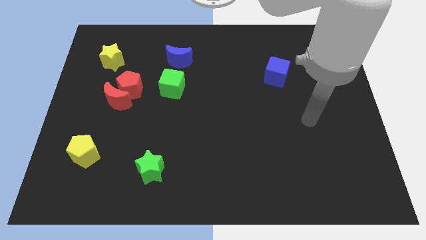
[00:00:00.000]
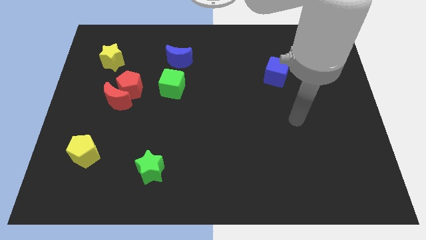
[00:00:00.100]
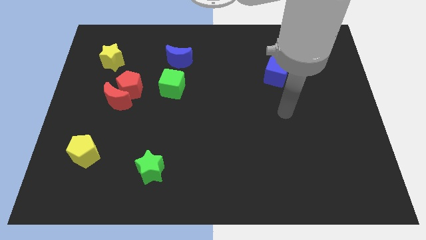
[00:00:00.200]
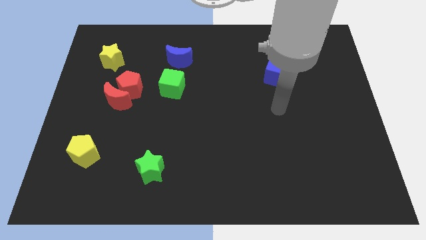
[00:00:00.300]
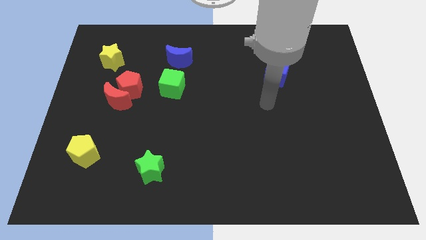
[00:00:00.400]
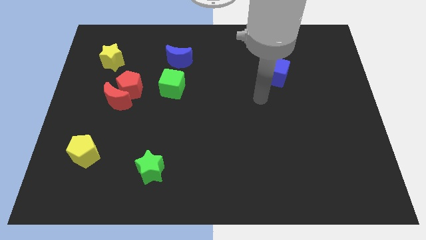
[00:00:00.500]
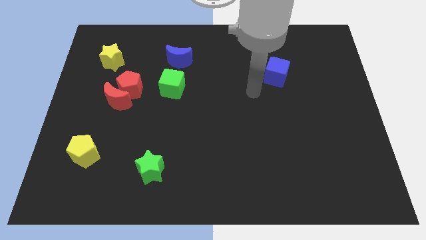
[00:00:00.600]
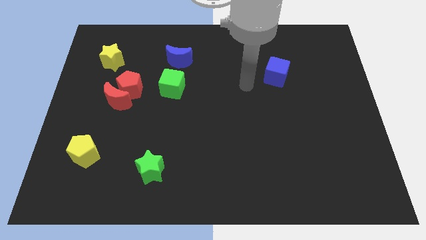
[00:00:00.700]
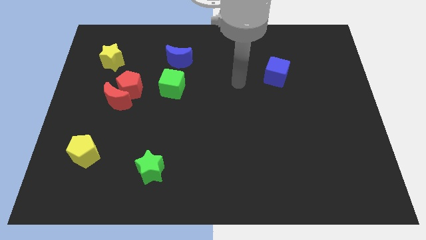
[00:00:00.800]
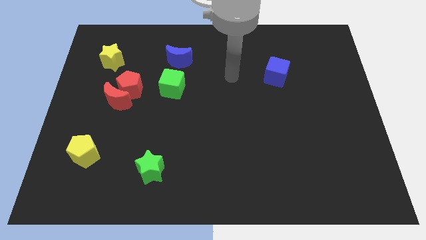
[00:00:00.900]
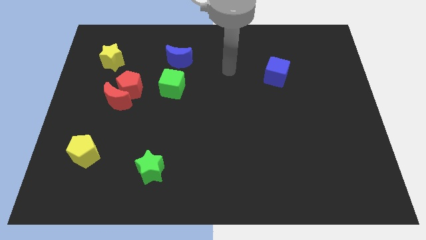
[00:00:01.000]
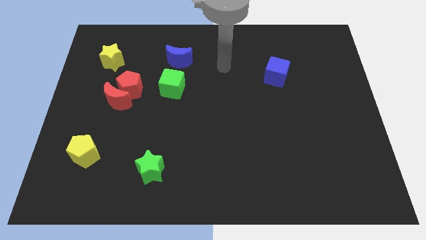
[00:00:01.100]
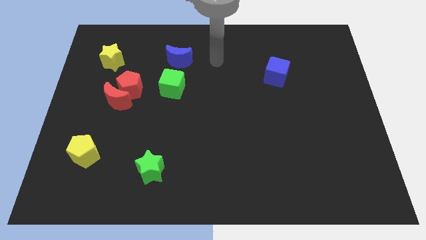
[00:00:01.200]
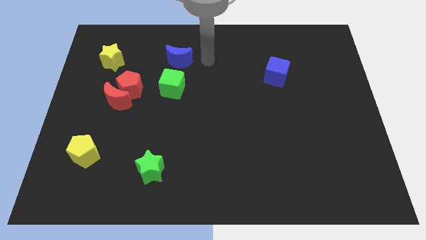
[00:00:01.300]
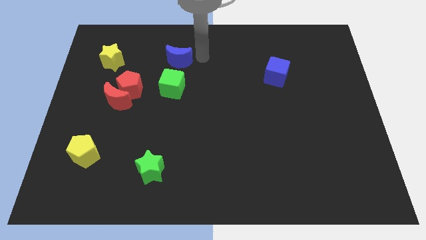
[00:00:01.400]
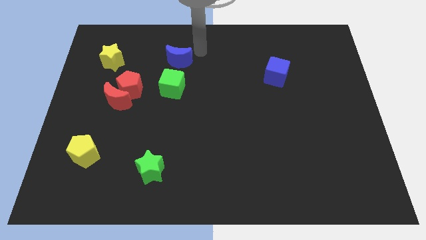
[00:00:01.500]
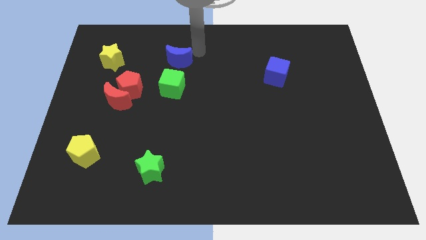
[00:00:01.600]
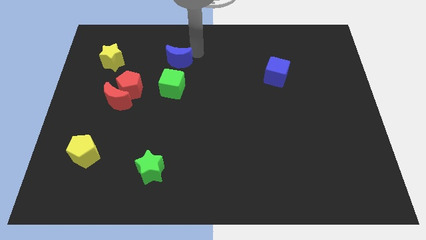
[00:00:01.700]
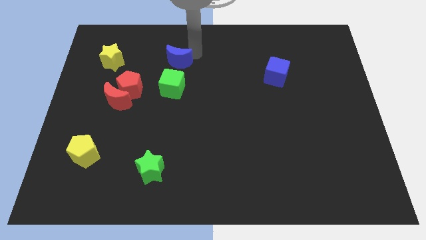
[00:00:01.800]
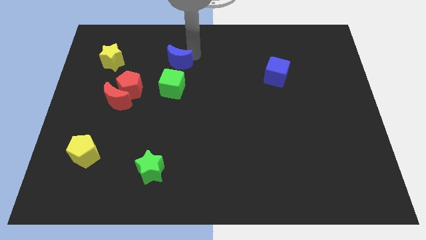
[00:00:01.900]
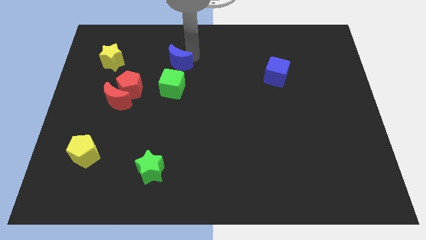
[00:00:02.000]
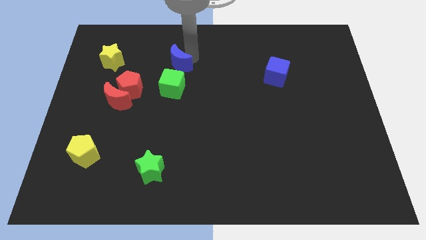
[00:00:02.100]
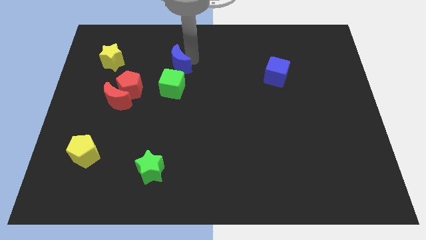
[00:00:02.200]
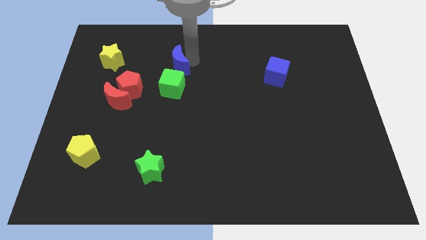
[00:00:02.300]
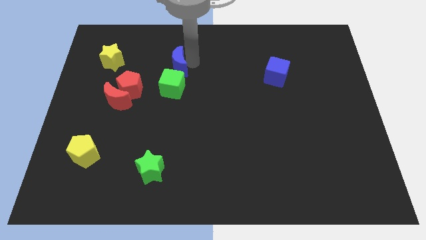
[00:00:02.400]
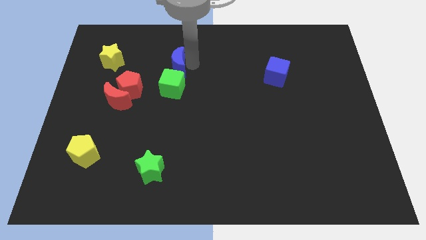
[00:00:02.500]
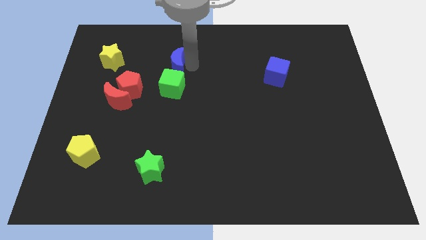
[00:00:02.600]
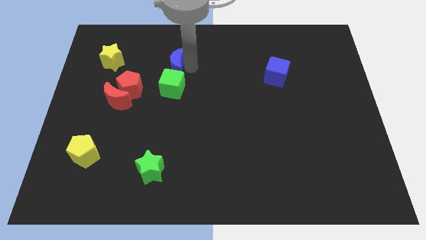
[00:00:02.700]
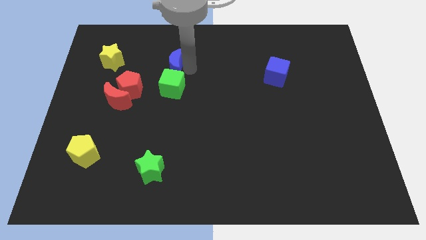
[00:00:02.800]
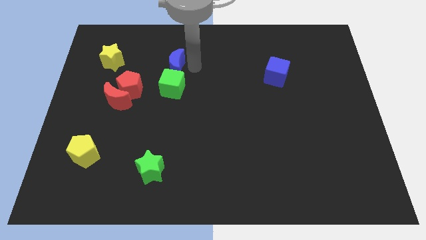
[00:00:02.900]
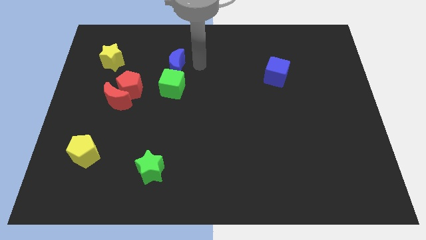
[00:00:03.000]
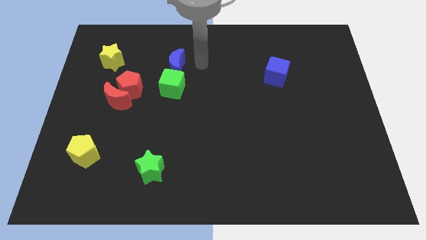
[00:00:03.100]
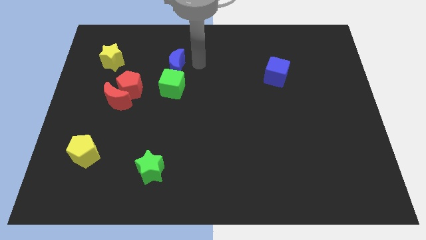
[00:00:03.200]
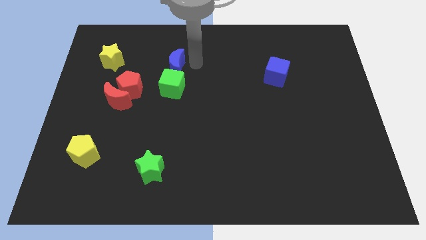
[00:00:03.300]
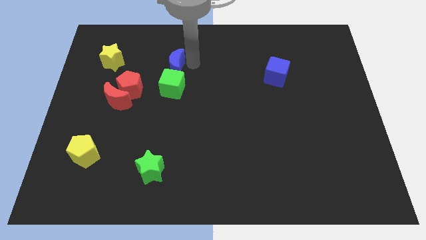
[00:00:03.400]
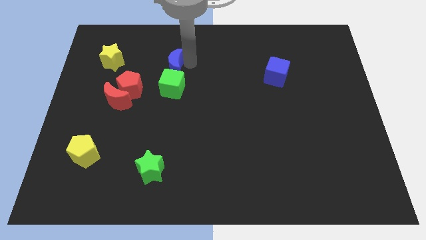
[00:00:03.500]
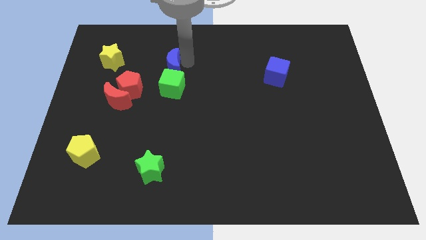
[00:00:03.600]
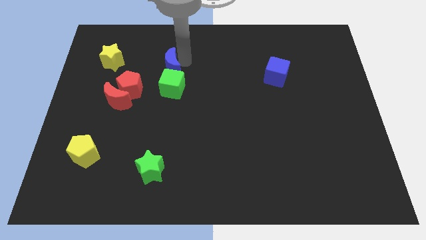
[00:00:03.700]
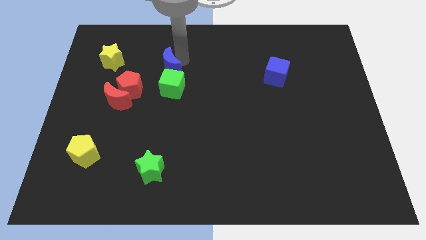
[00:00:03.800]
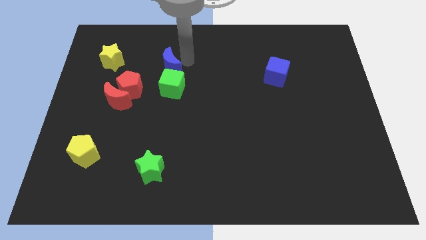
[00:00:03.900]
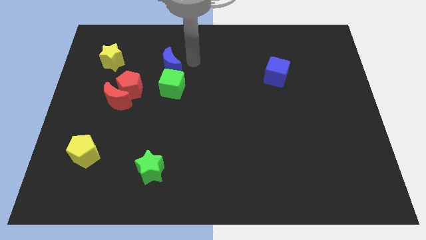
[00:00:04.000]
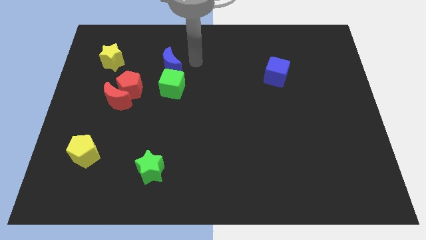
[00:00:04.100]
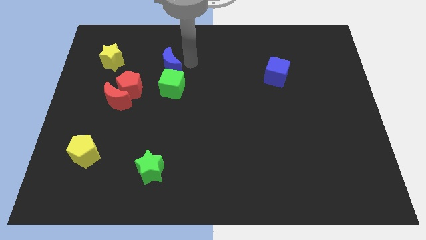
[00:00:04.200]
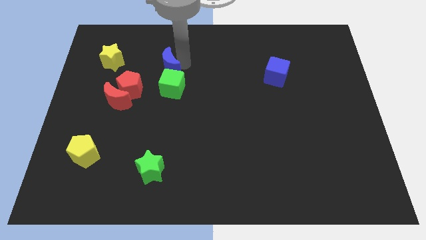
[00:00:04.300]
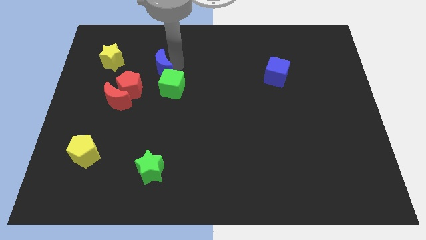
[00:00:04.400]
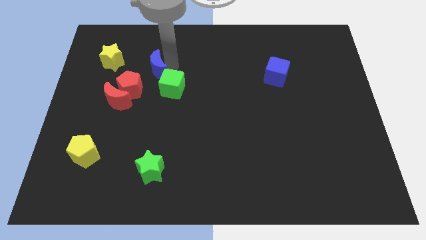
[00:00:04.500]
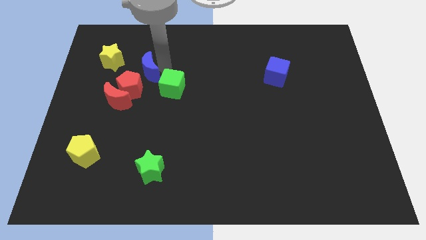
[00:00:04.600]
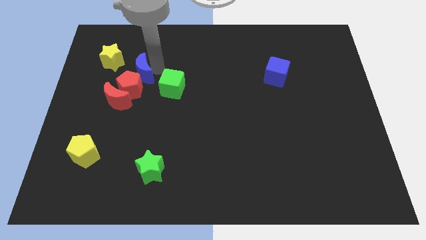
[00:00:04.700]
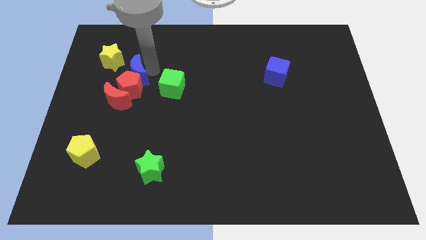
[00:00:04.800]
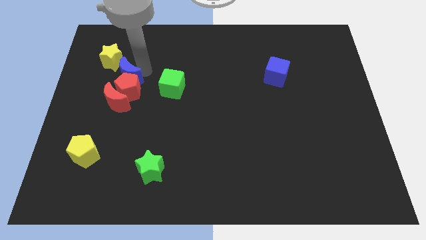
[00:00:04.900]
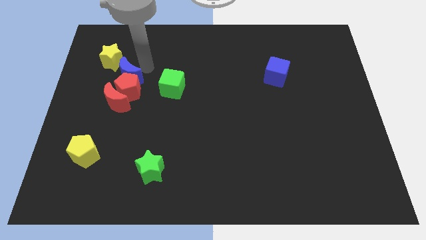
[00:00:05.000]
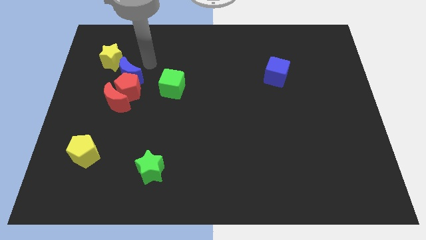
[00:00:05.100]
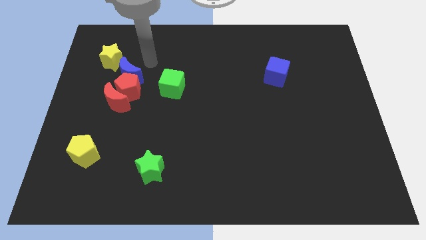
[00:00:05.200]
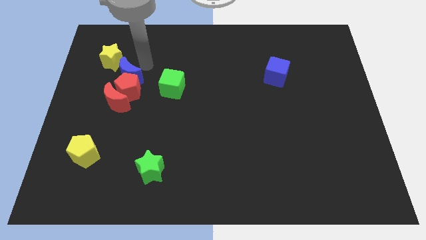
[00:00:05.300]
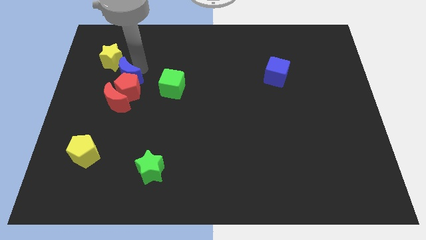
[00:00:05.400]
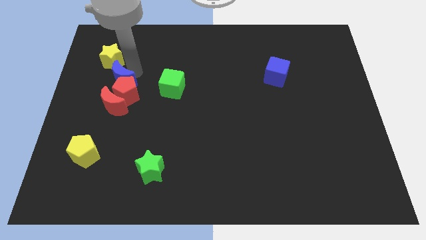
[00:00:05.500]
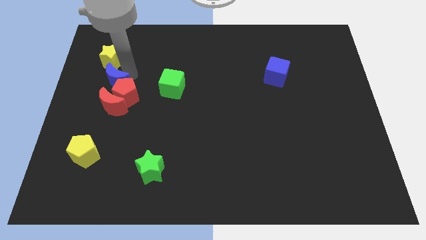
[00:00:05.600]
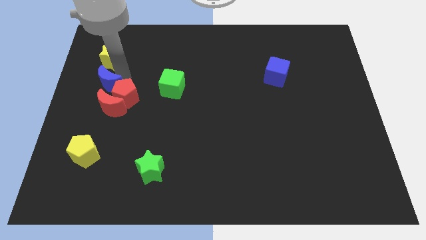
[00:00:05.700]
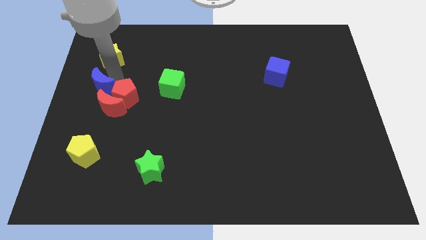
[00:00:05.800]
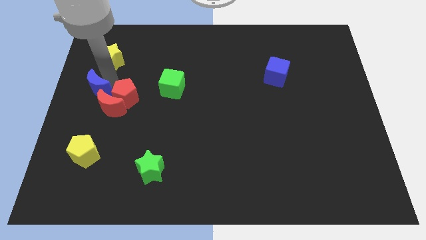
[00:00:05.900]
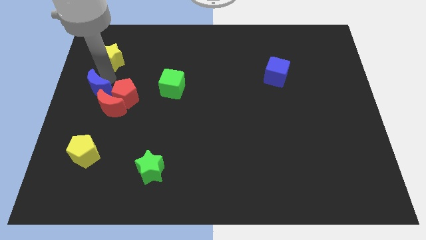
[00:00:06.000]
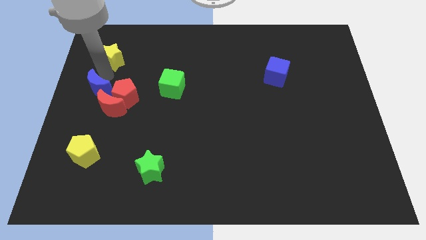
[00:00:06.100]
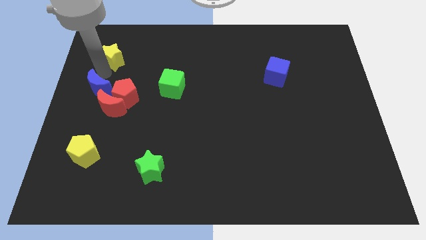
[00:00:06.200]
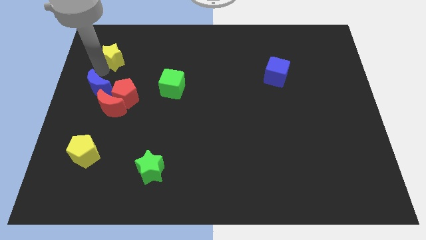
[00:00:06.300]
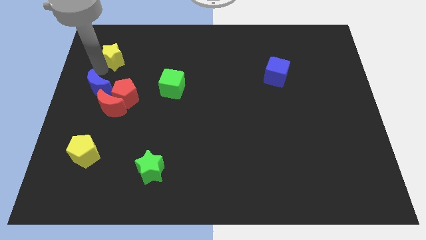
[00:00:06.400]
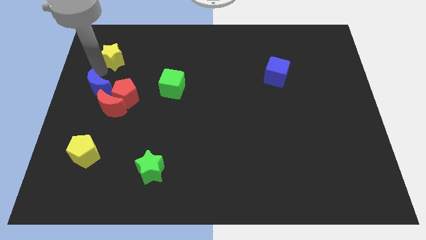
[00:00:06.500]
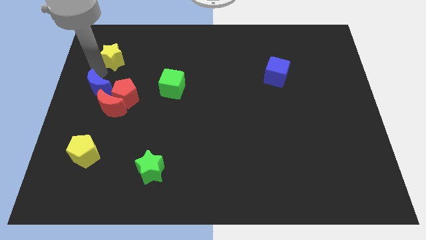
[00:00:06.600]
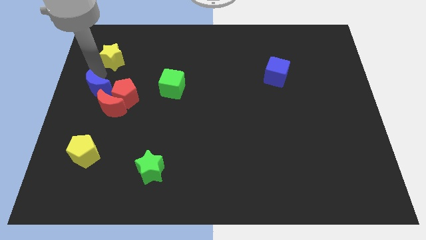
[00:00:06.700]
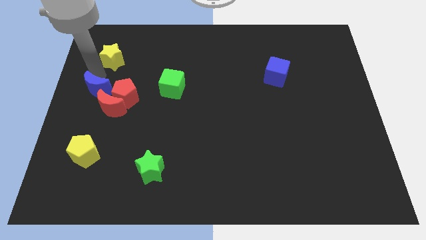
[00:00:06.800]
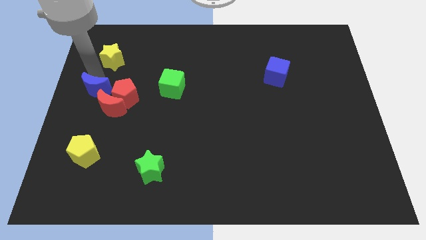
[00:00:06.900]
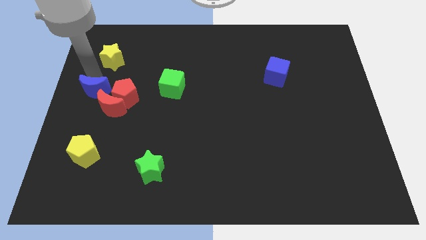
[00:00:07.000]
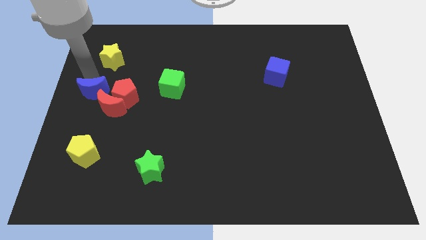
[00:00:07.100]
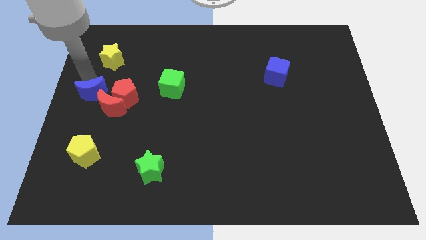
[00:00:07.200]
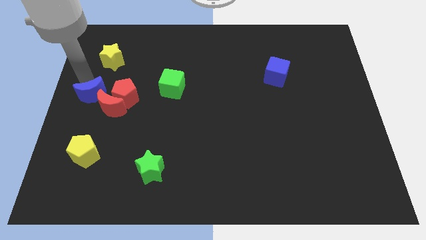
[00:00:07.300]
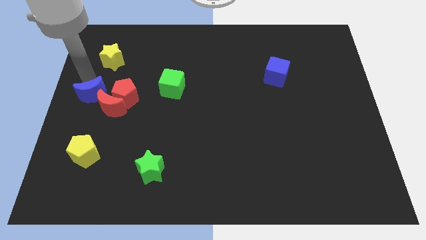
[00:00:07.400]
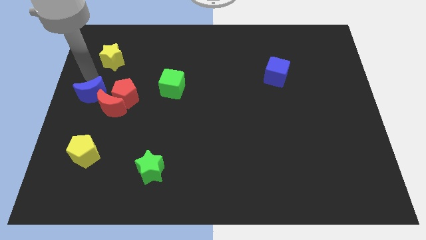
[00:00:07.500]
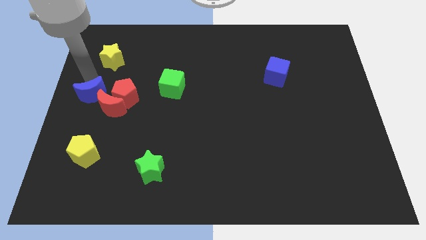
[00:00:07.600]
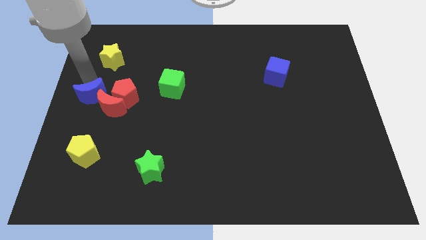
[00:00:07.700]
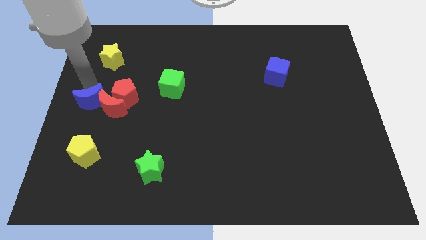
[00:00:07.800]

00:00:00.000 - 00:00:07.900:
move the blue moon above the yellow pentagon
